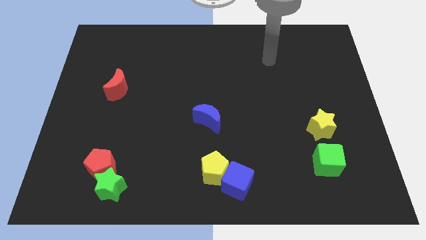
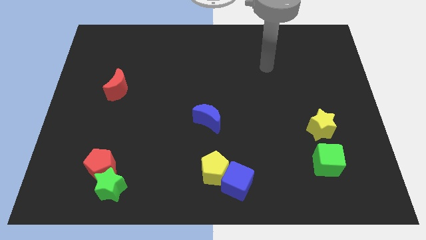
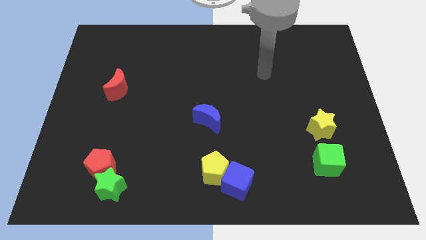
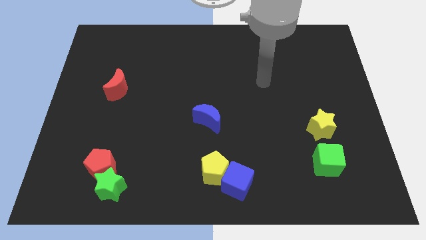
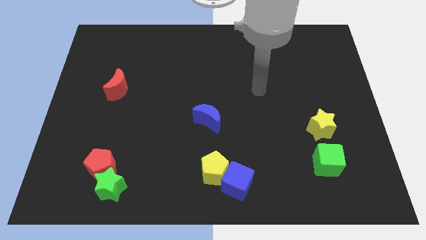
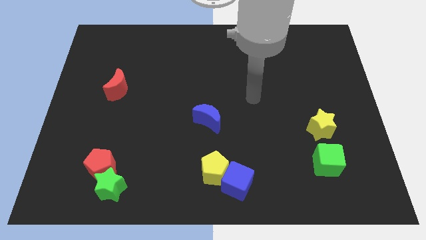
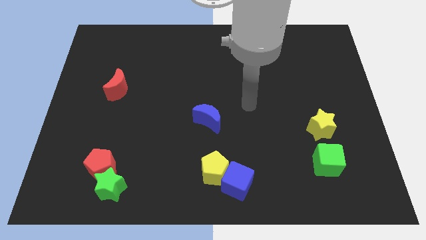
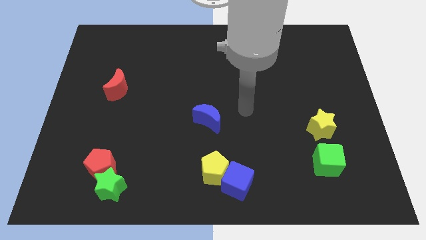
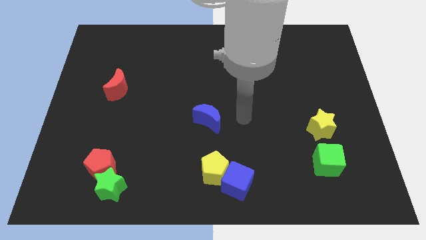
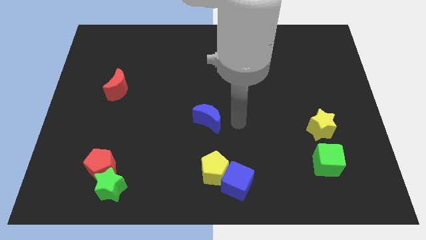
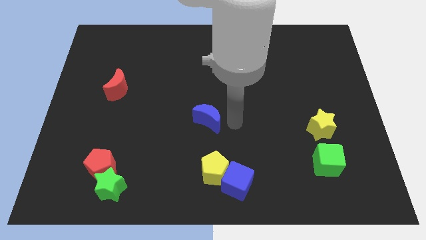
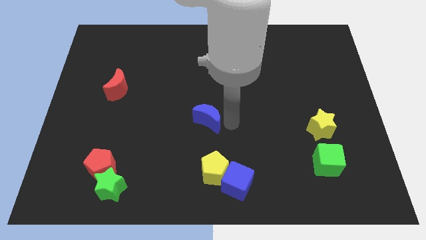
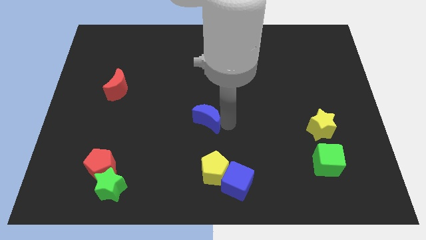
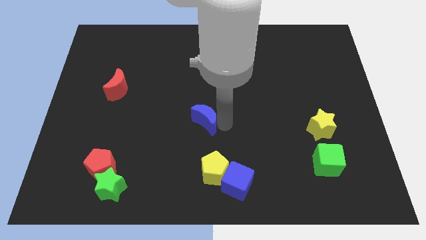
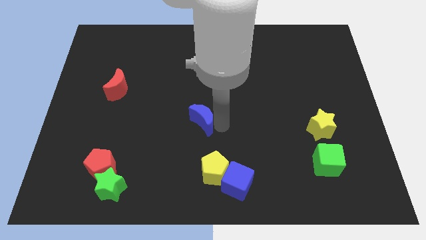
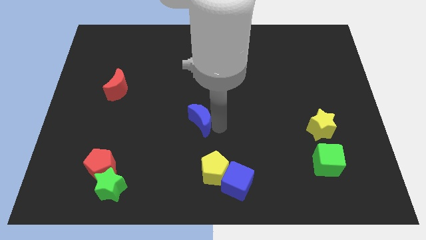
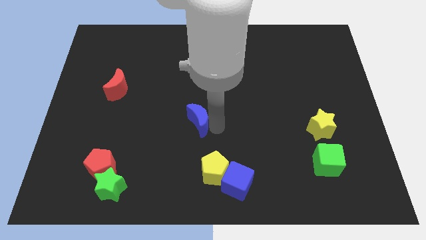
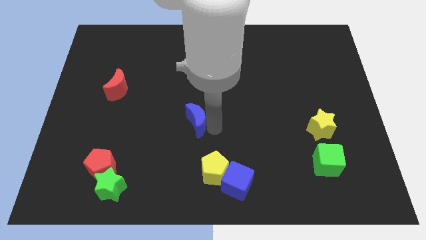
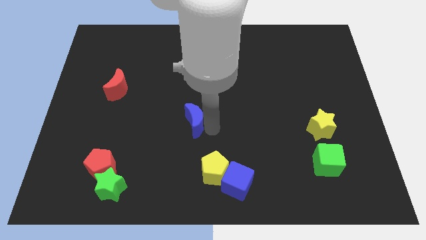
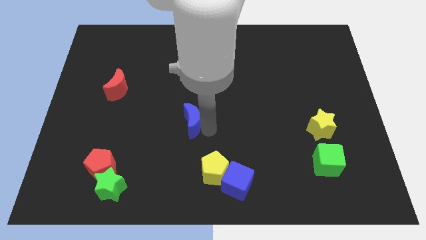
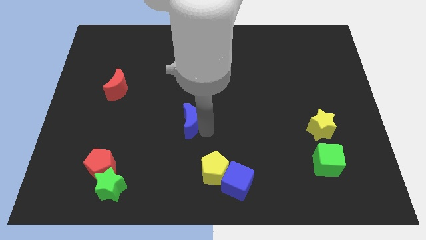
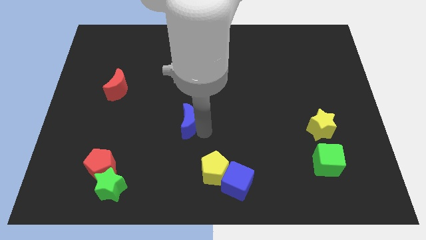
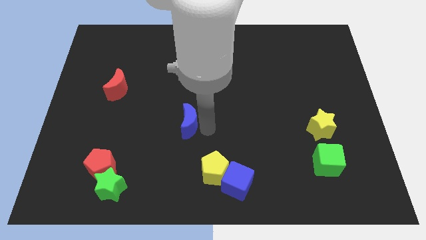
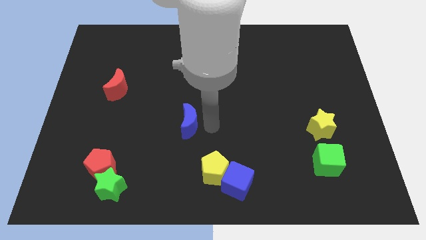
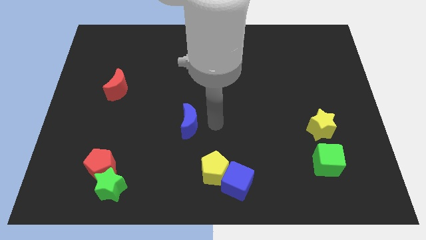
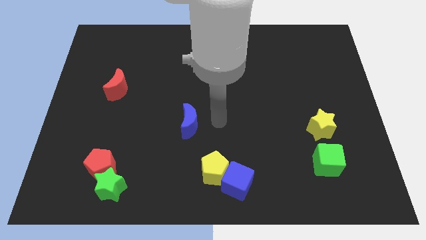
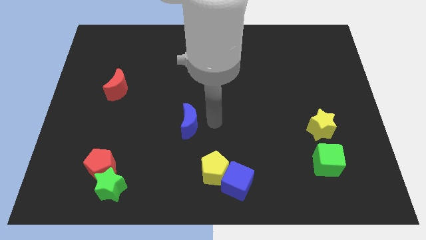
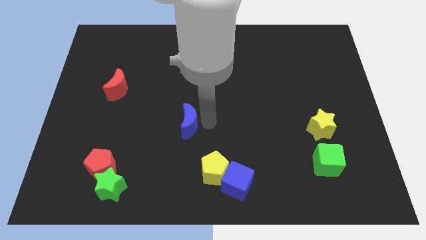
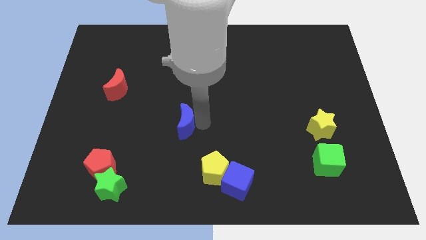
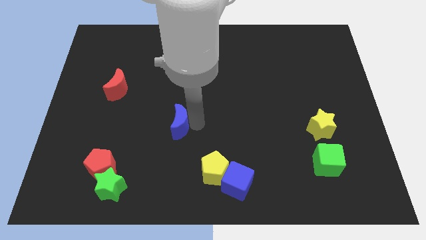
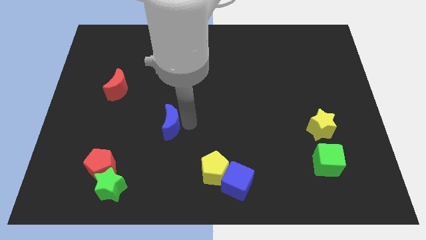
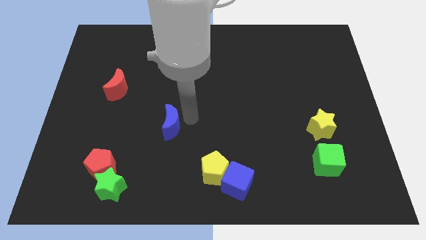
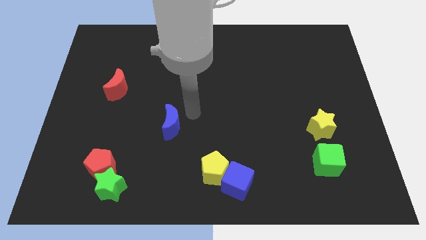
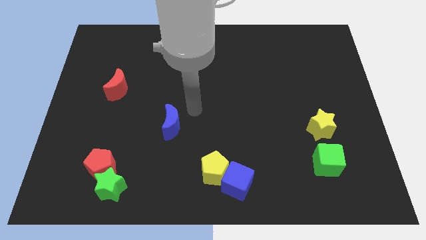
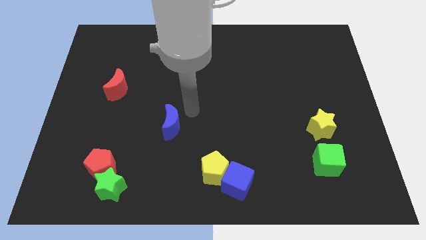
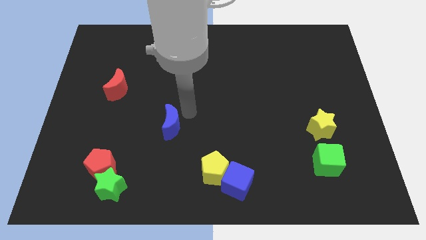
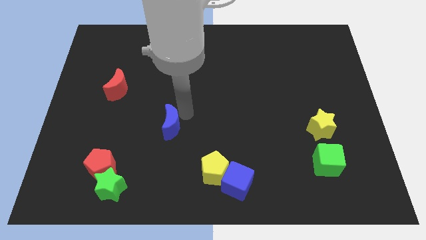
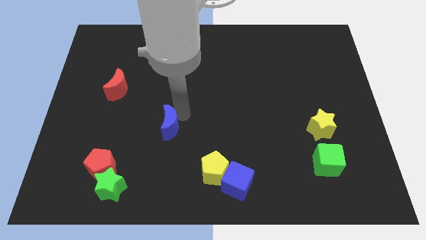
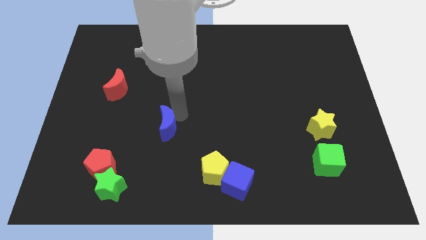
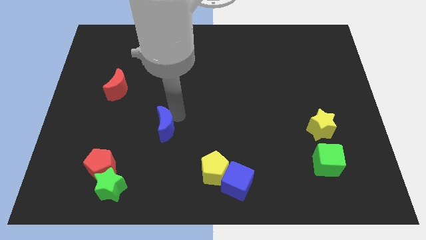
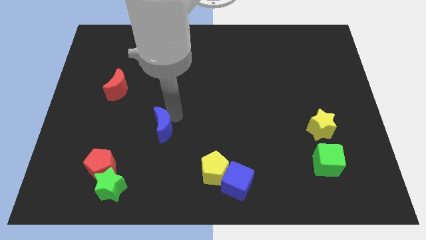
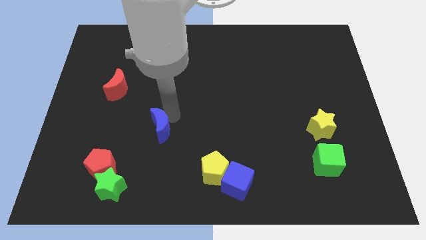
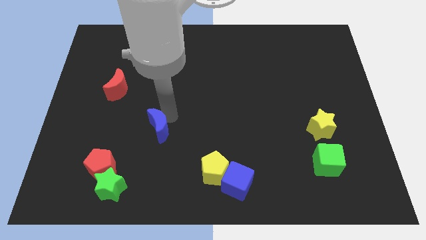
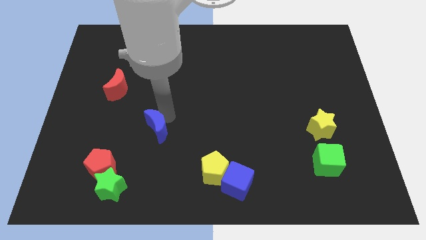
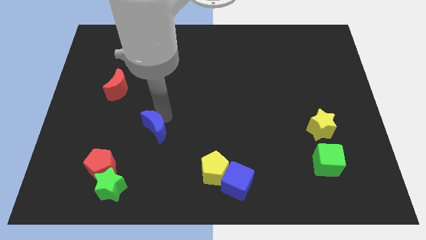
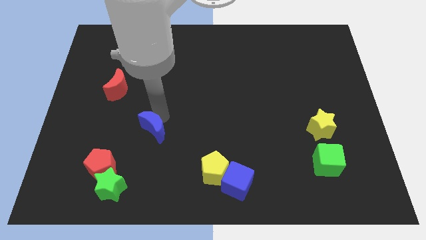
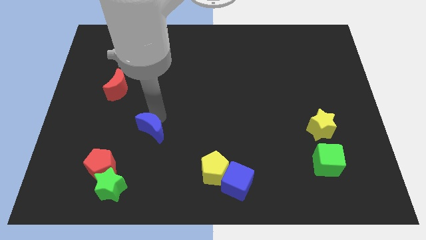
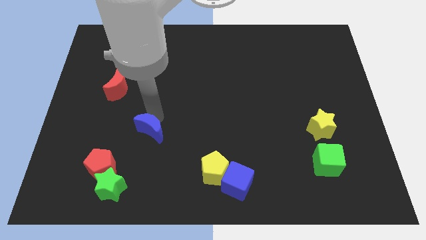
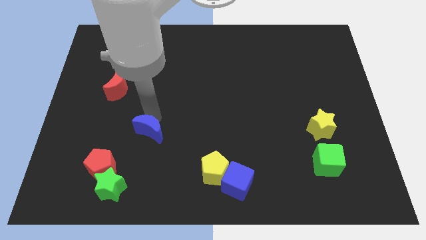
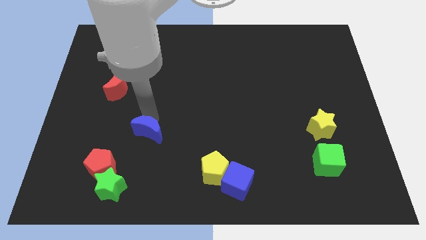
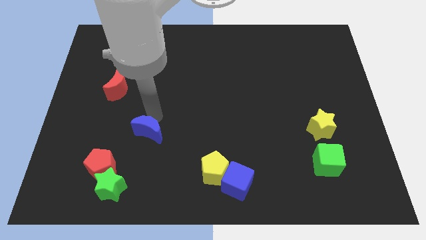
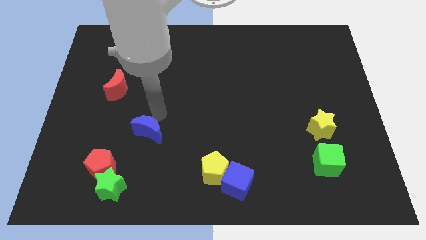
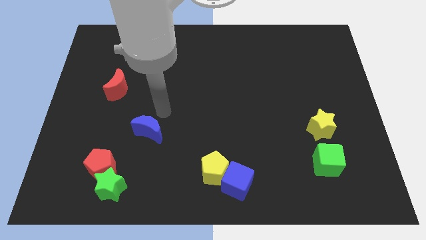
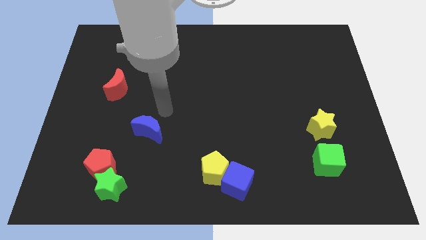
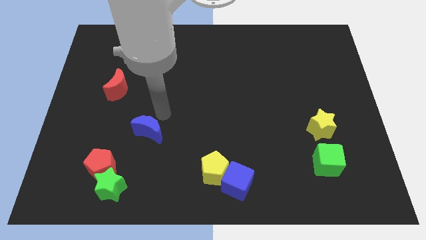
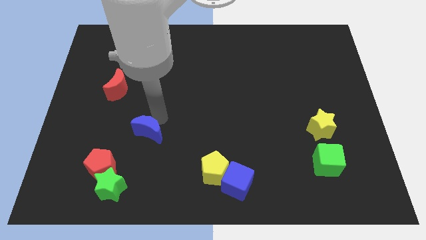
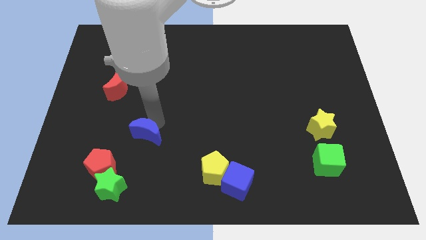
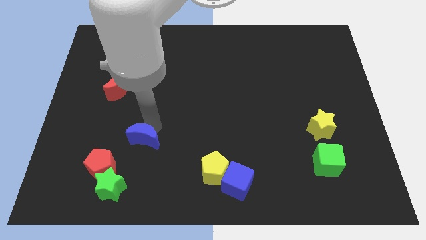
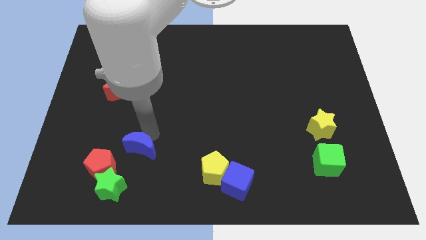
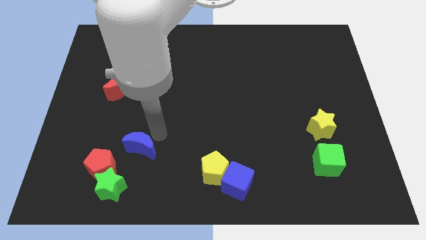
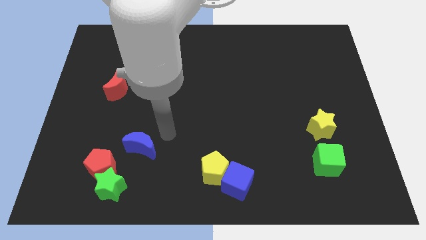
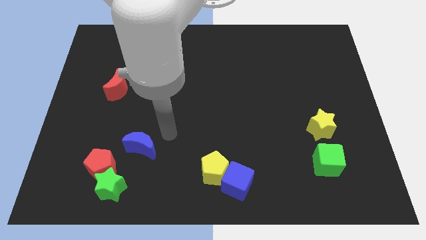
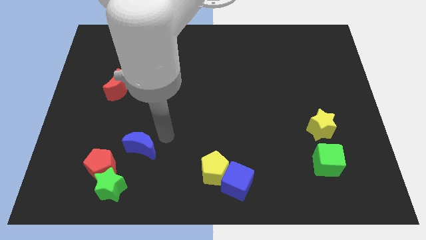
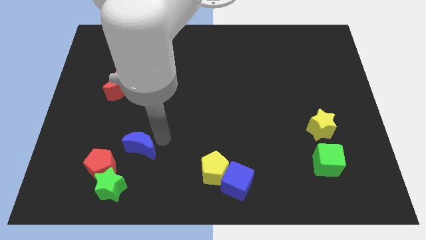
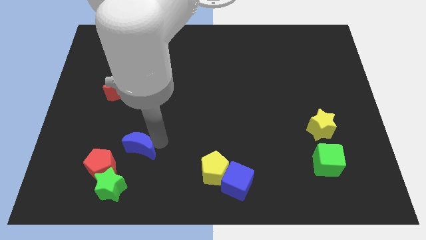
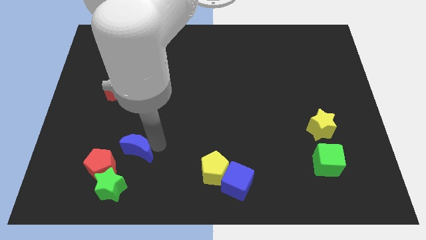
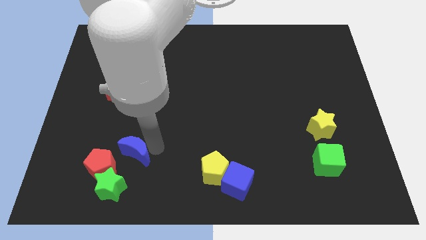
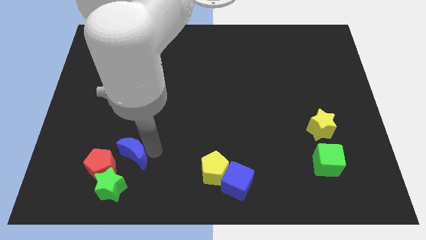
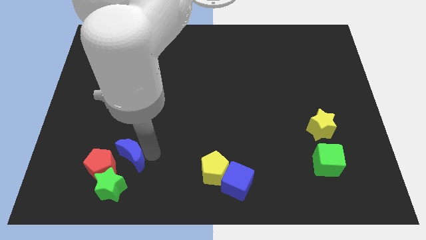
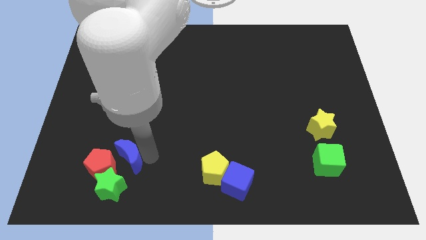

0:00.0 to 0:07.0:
put the blue moon close to the red pentagon
